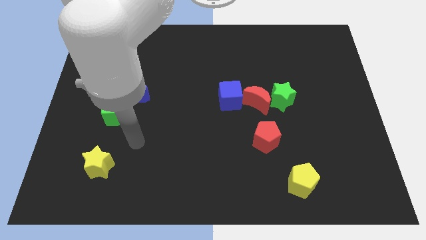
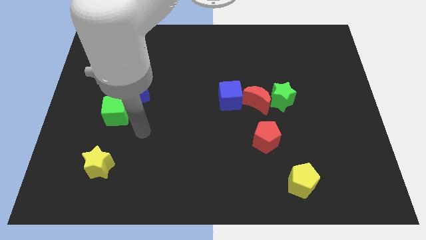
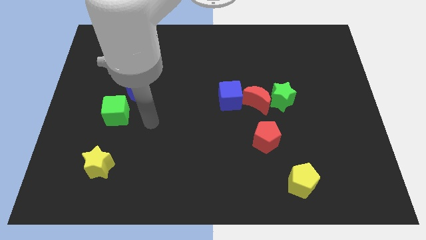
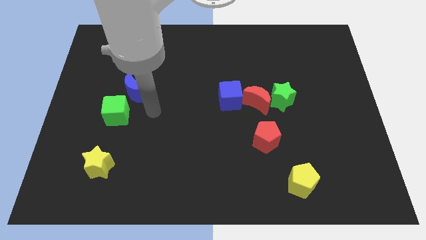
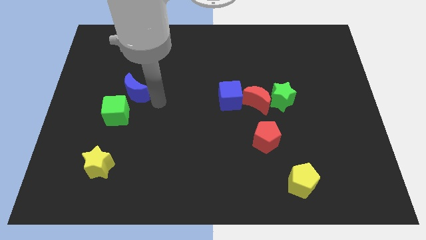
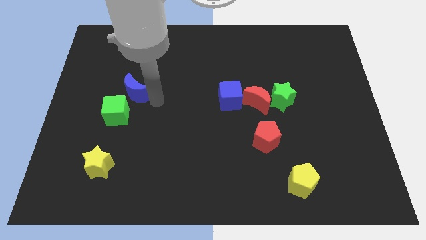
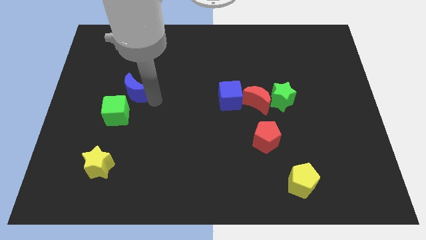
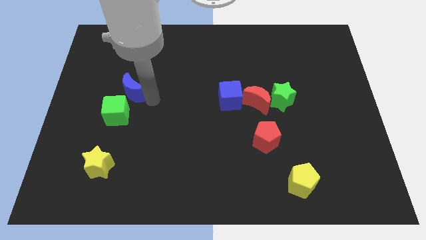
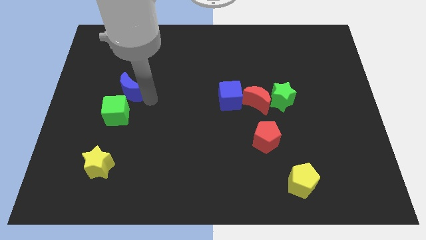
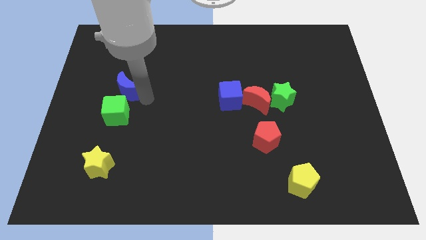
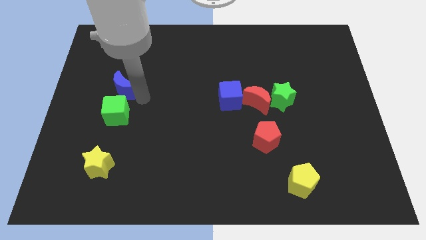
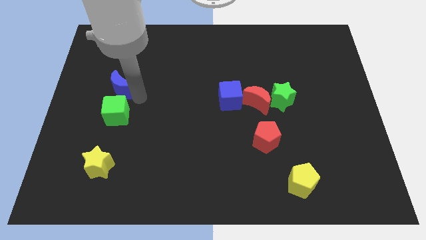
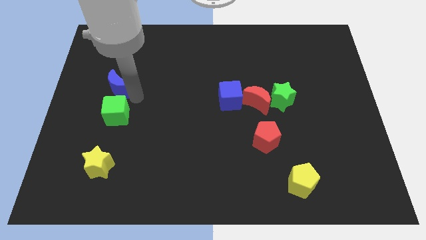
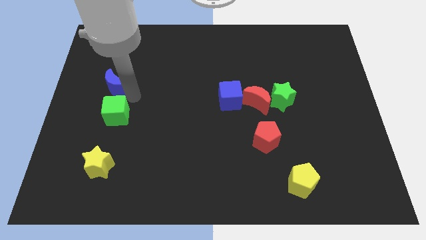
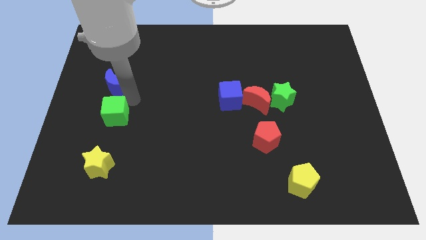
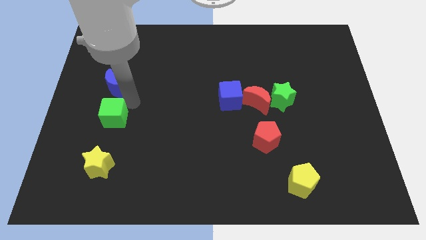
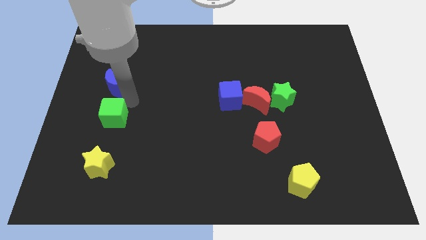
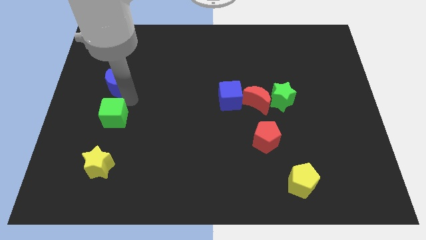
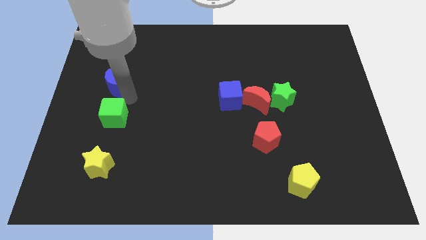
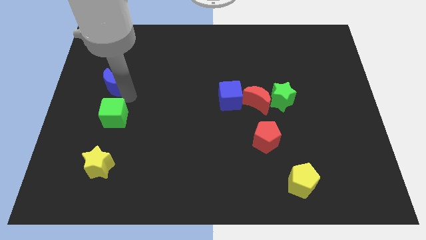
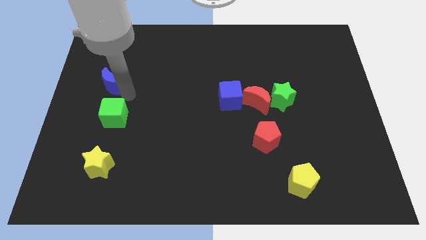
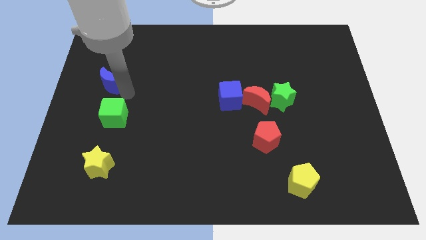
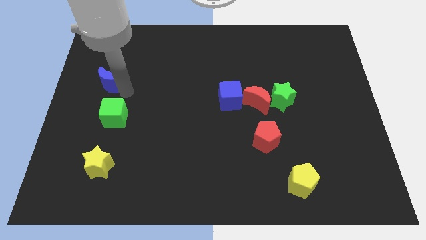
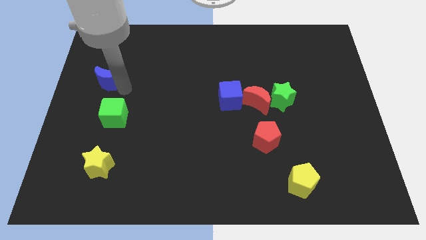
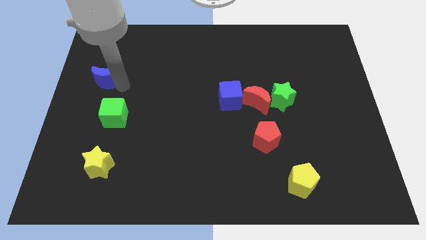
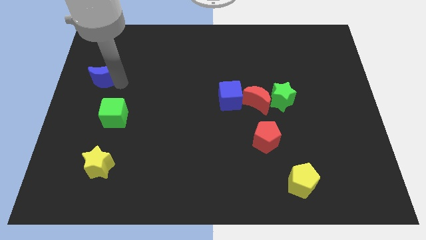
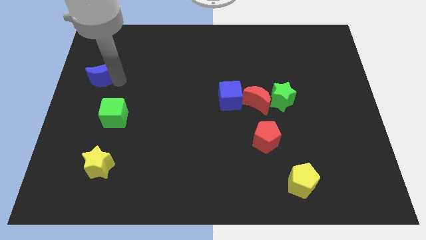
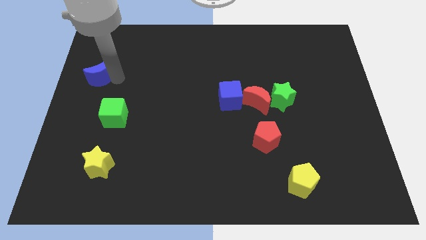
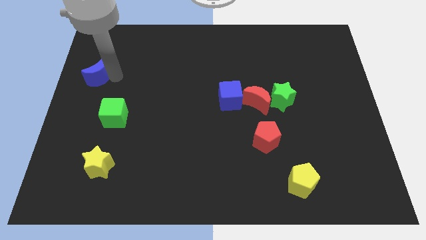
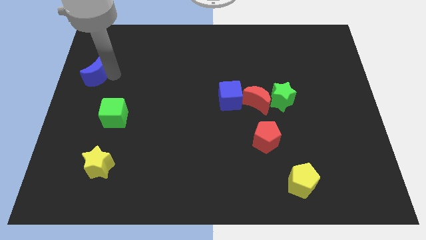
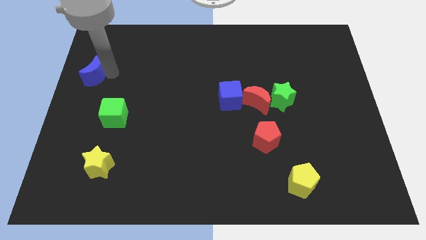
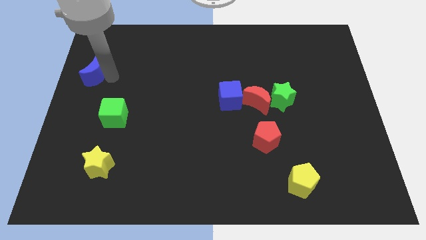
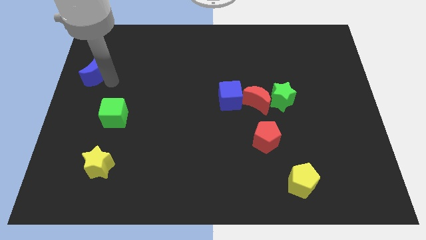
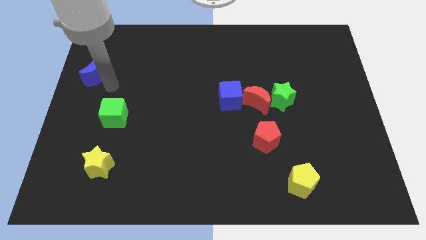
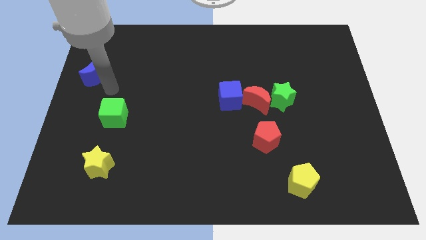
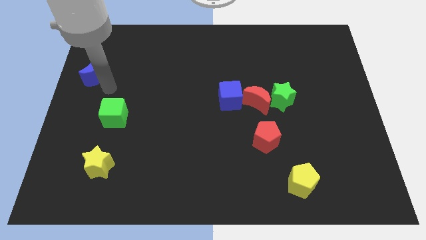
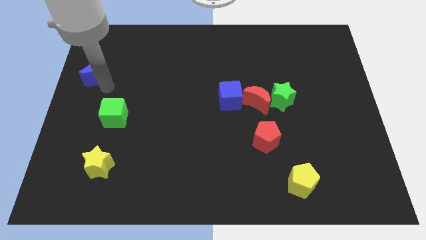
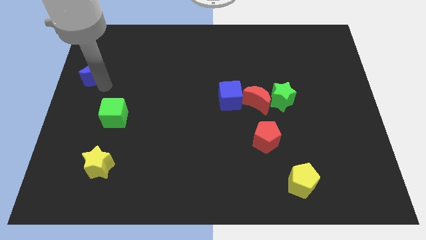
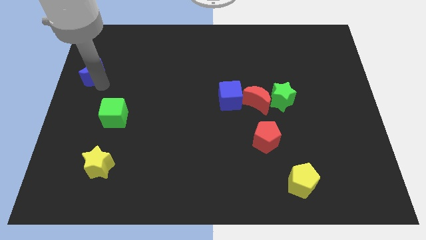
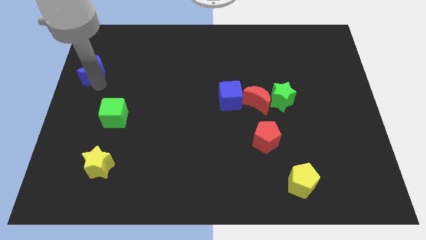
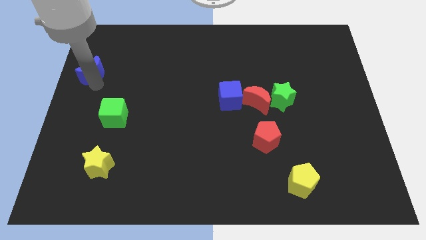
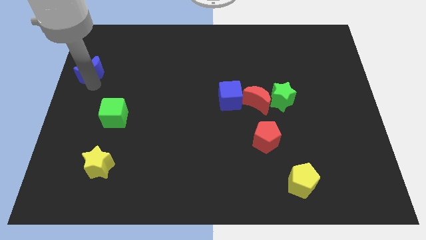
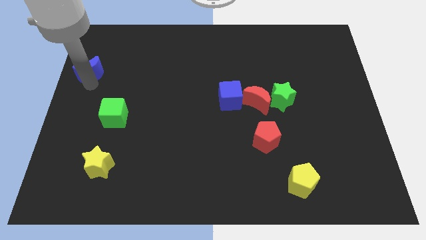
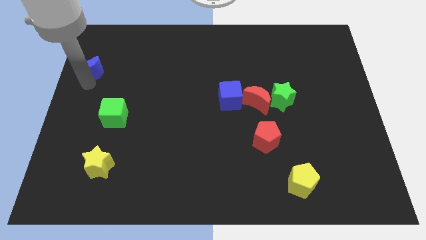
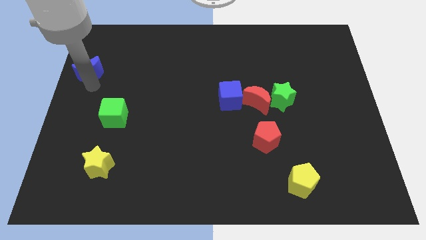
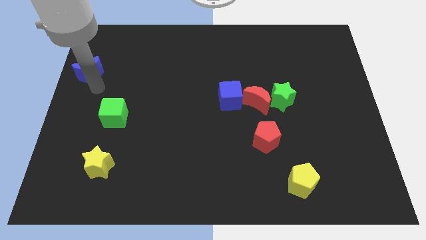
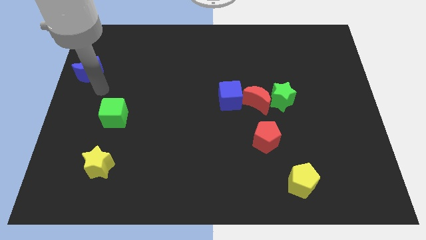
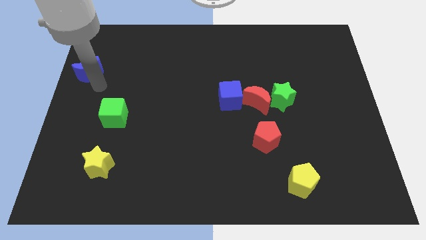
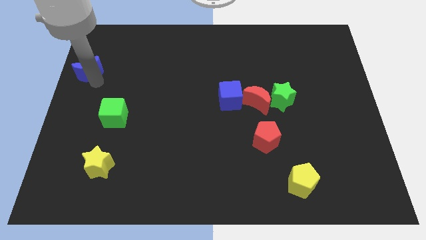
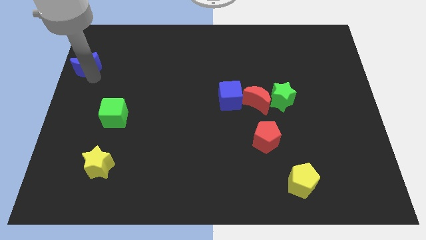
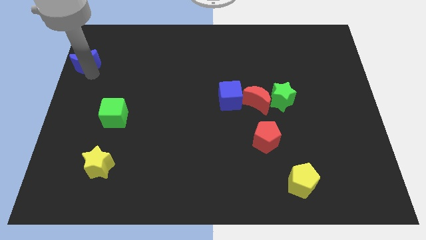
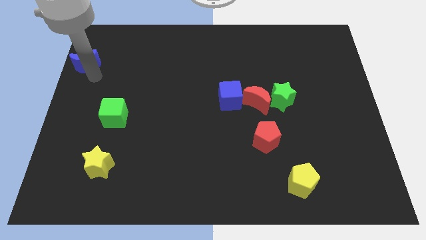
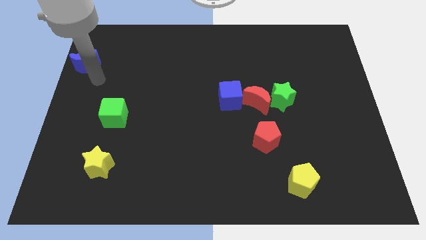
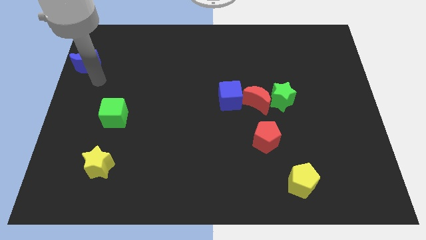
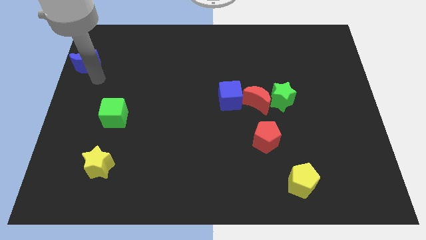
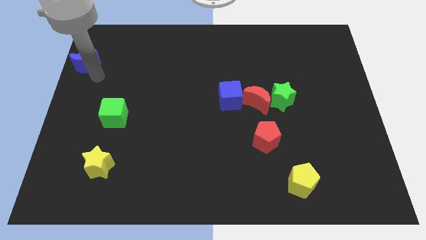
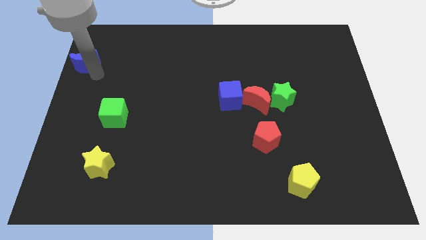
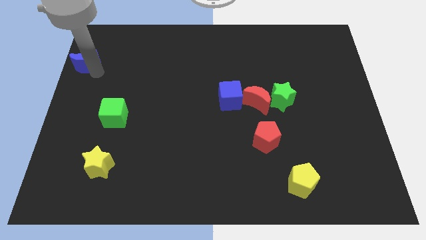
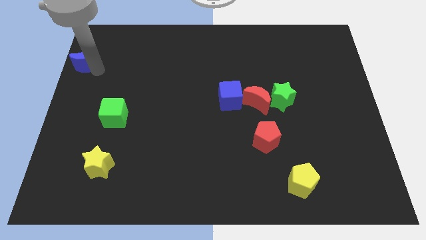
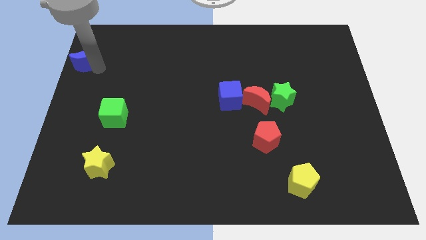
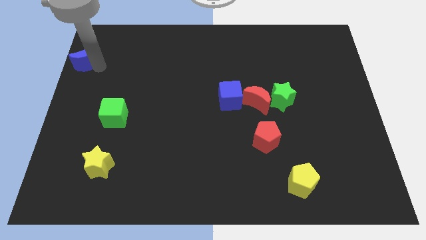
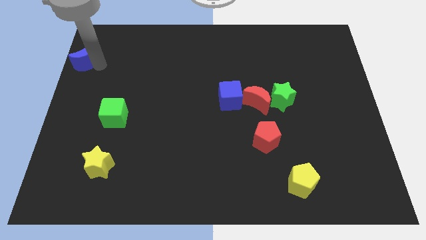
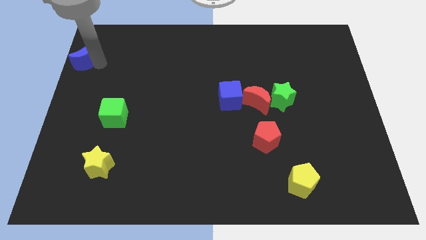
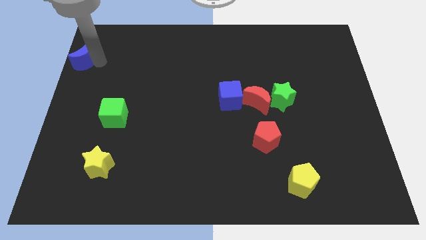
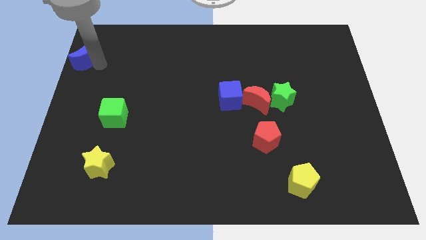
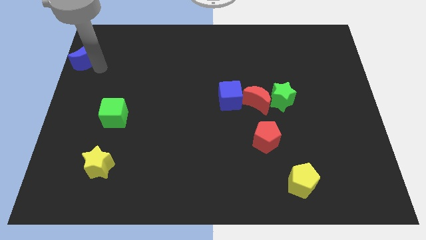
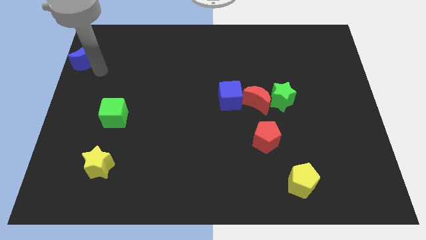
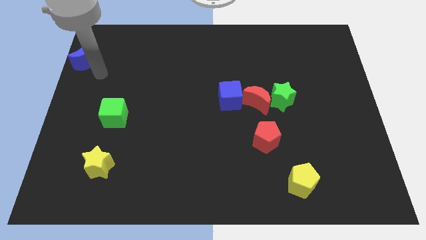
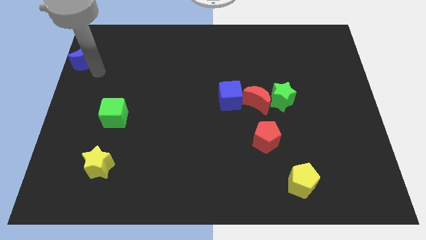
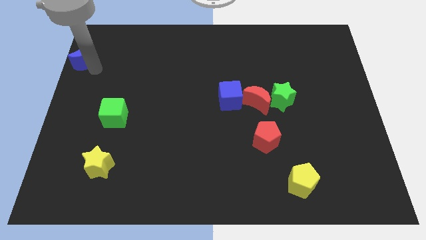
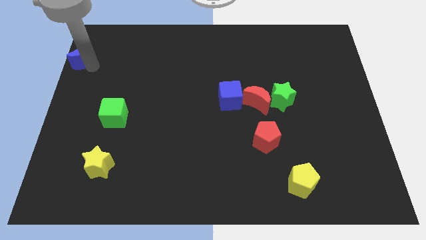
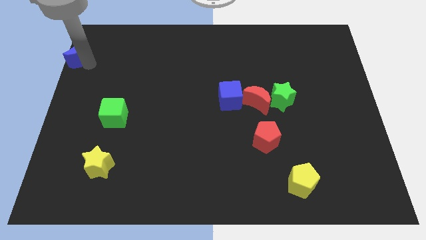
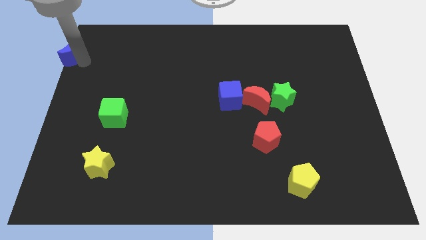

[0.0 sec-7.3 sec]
put the blue moon to the top left of the board
